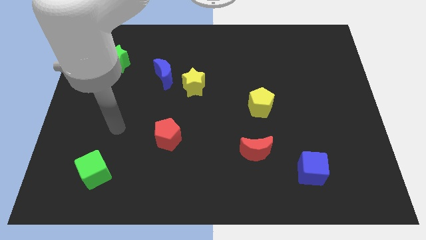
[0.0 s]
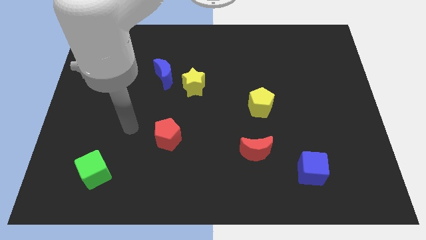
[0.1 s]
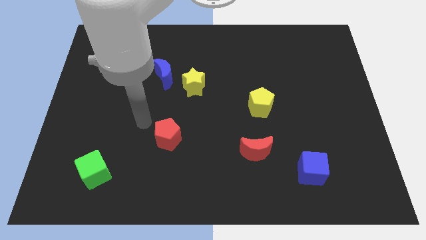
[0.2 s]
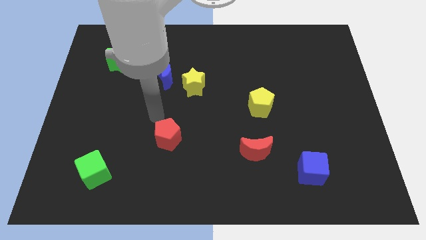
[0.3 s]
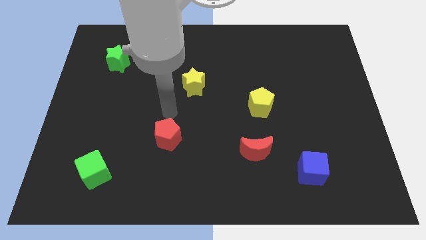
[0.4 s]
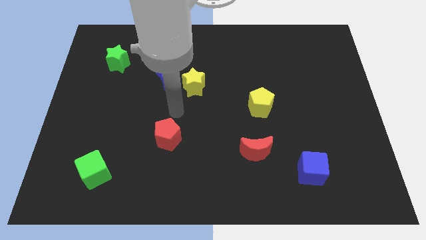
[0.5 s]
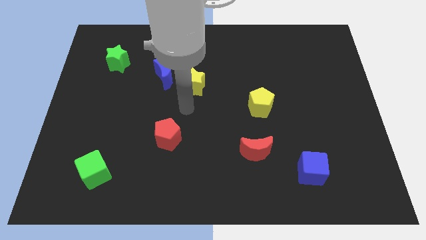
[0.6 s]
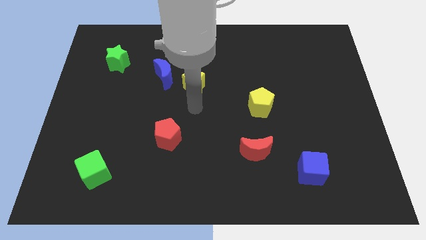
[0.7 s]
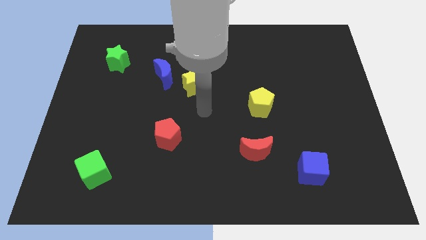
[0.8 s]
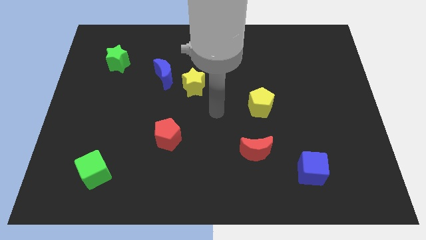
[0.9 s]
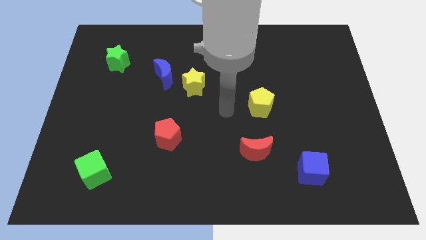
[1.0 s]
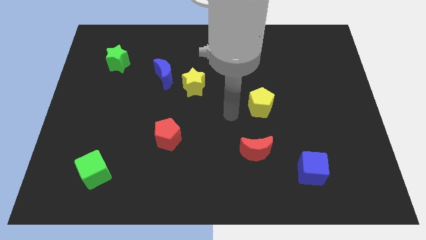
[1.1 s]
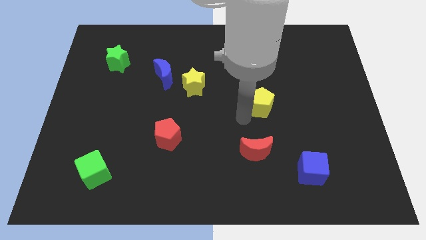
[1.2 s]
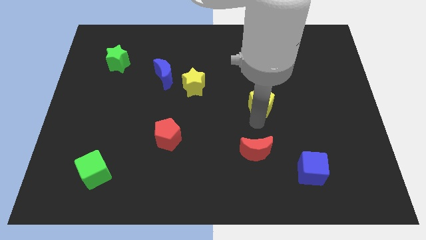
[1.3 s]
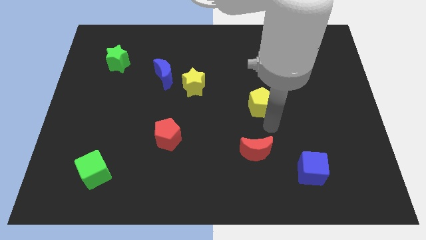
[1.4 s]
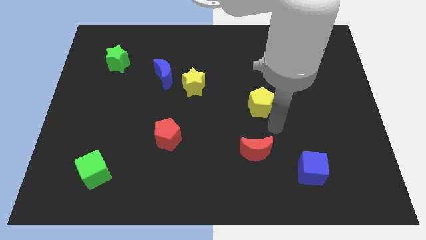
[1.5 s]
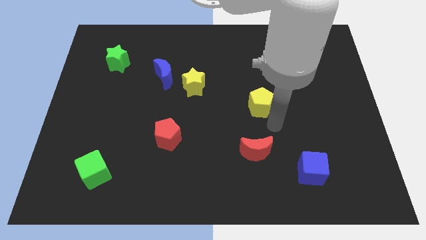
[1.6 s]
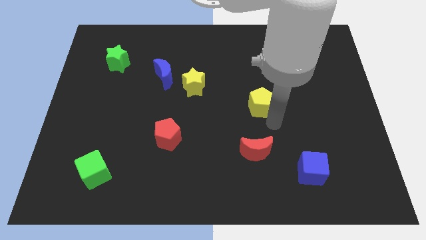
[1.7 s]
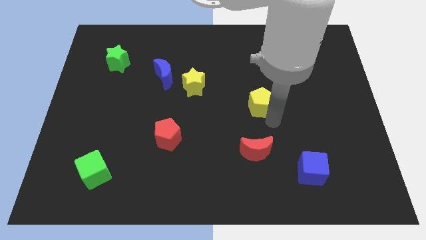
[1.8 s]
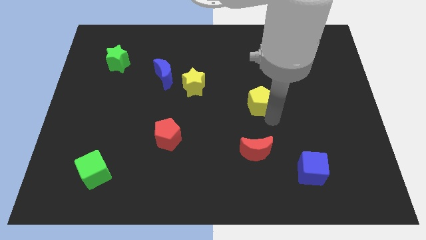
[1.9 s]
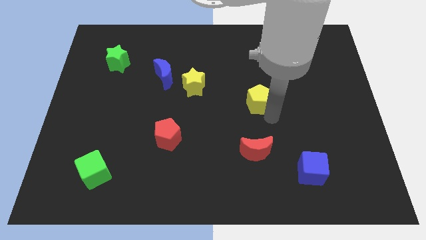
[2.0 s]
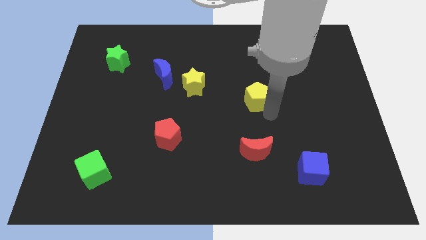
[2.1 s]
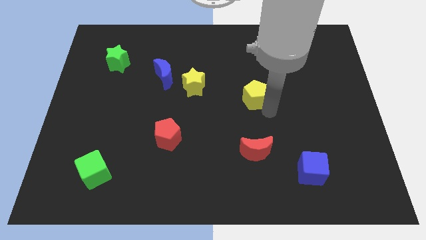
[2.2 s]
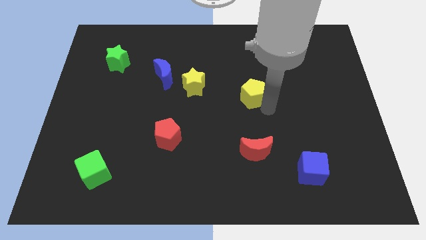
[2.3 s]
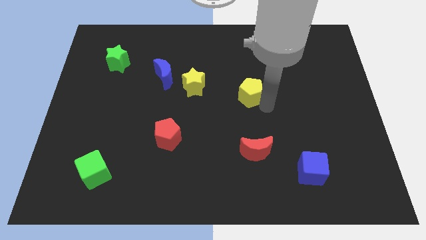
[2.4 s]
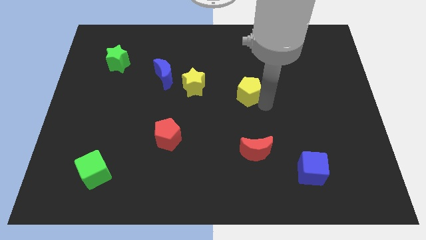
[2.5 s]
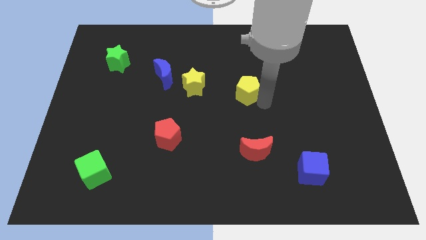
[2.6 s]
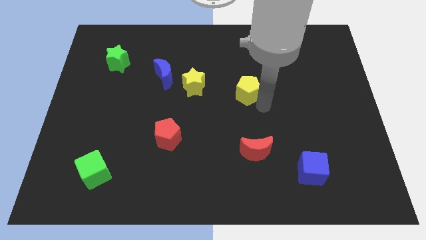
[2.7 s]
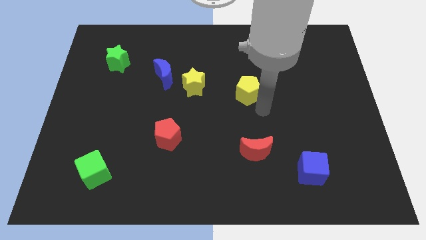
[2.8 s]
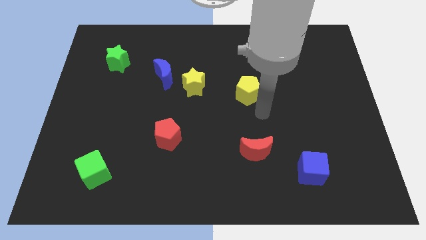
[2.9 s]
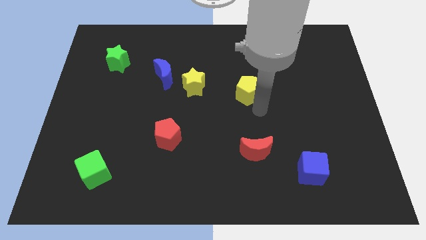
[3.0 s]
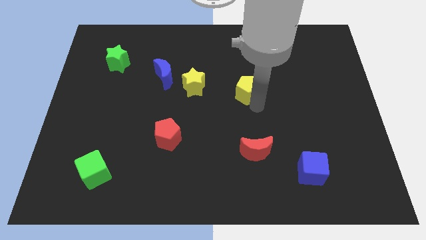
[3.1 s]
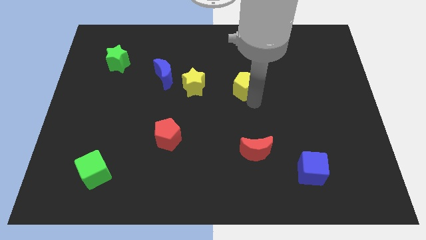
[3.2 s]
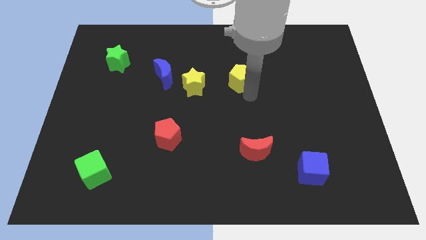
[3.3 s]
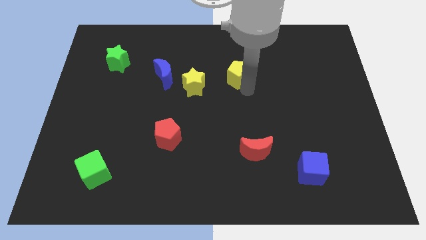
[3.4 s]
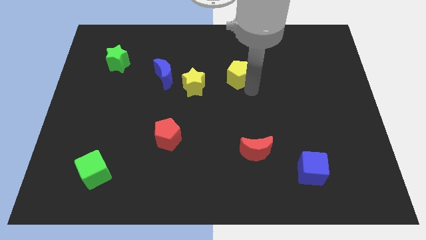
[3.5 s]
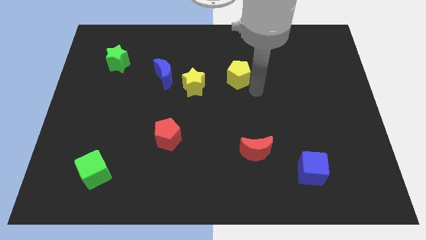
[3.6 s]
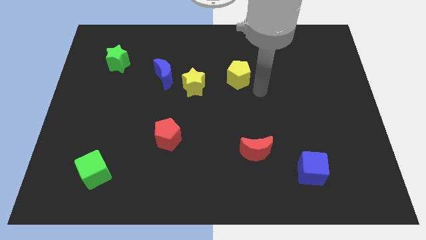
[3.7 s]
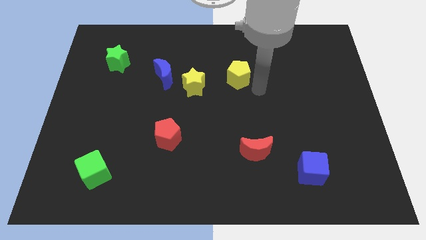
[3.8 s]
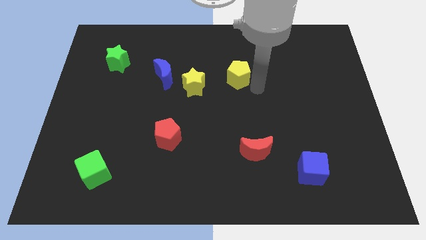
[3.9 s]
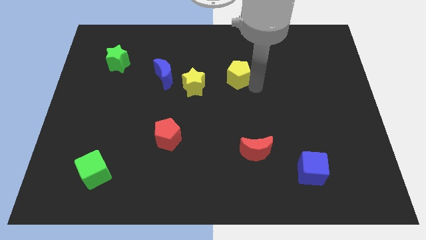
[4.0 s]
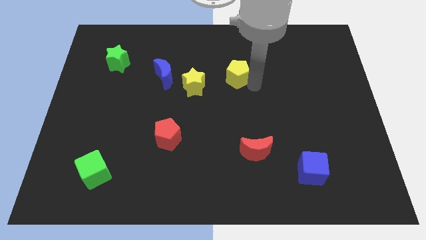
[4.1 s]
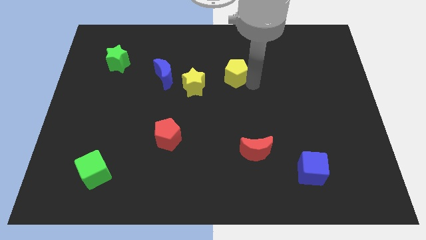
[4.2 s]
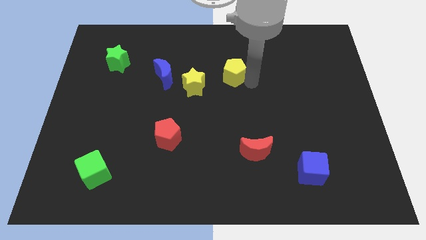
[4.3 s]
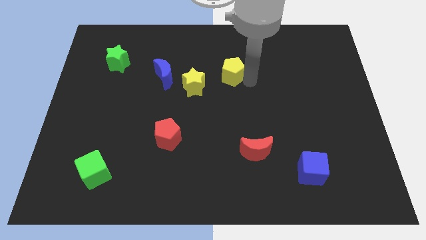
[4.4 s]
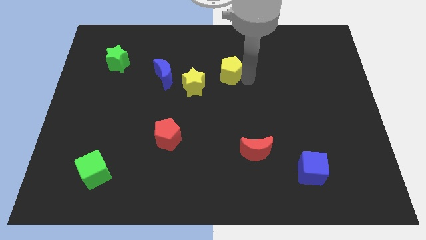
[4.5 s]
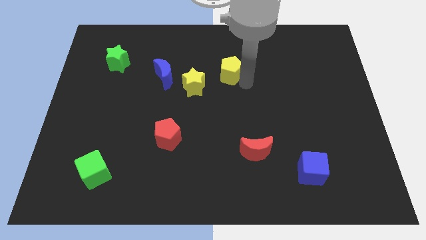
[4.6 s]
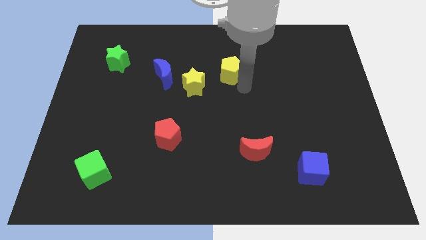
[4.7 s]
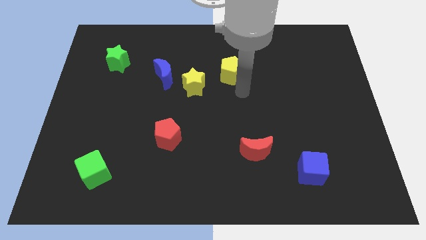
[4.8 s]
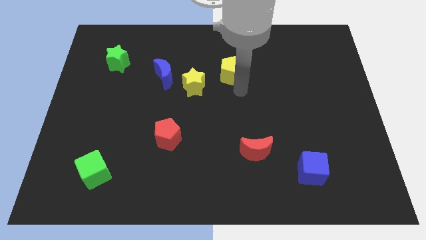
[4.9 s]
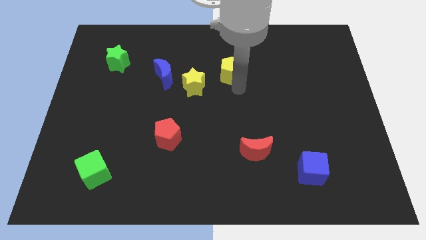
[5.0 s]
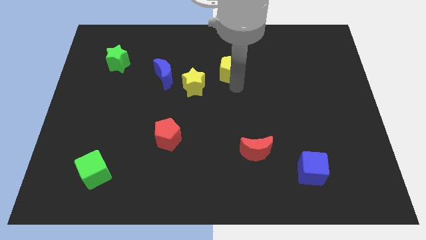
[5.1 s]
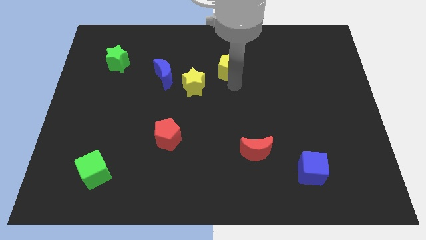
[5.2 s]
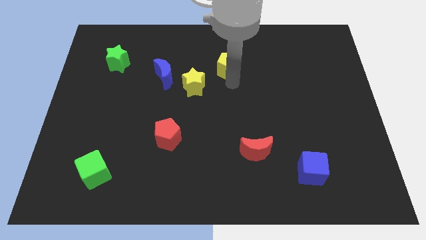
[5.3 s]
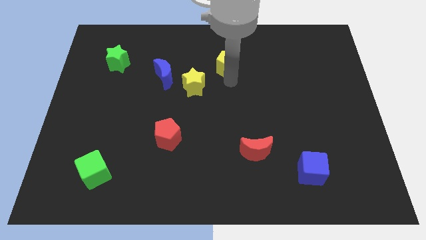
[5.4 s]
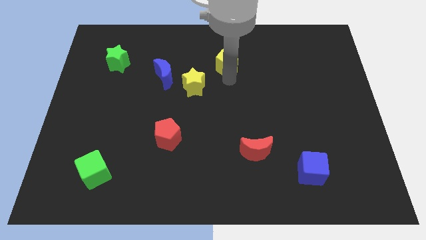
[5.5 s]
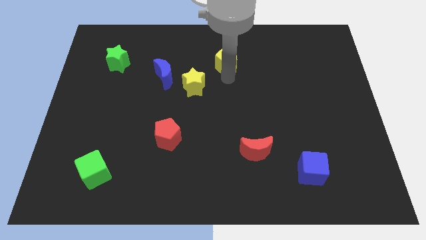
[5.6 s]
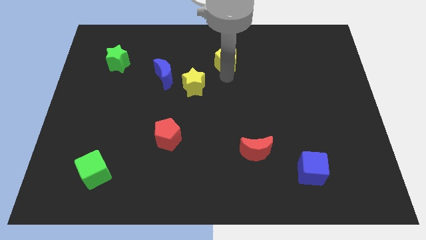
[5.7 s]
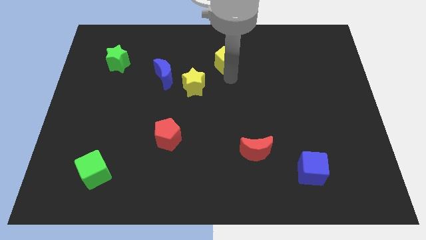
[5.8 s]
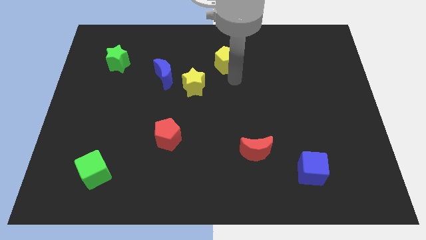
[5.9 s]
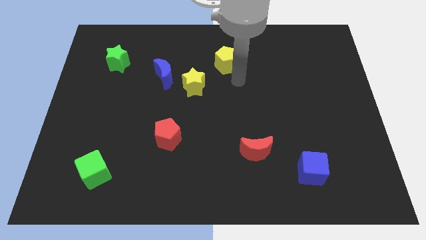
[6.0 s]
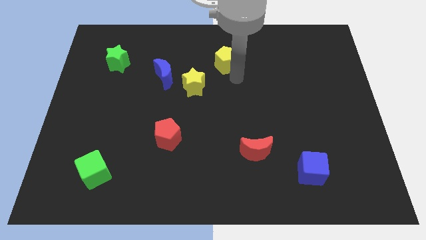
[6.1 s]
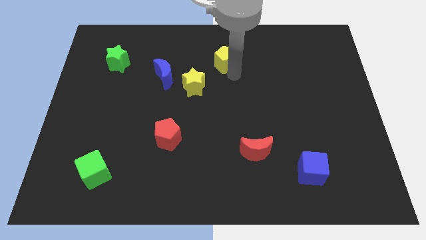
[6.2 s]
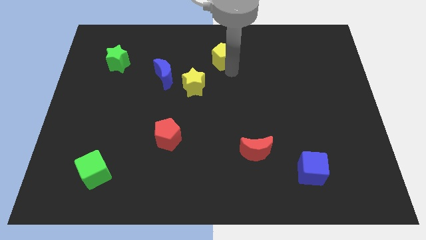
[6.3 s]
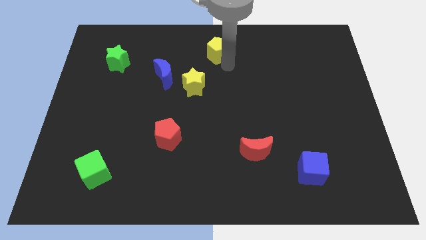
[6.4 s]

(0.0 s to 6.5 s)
slide the yellow pentagon to the top
